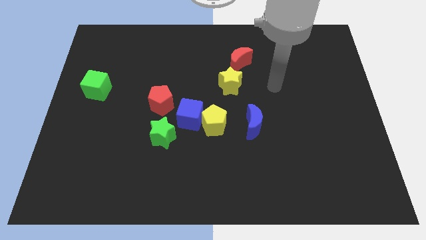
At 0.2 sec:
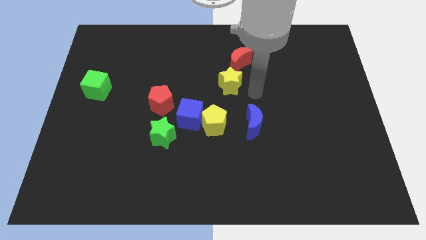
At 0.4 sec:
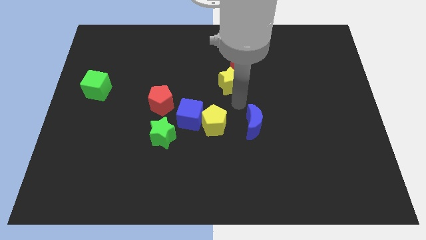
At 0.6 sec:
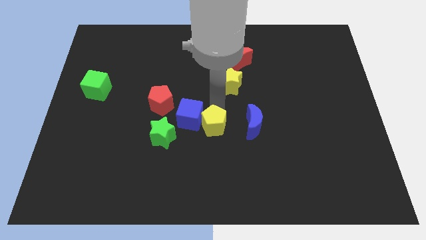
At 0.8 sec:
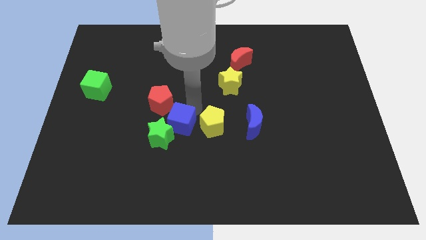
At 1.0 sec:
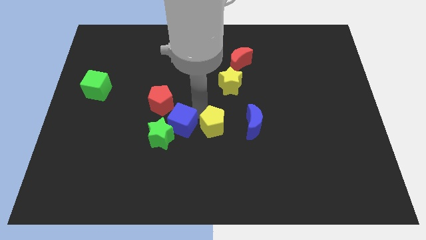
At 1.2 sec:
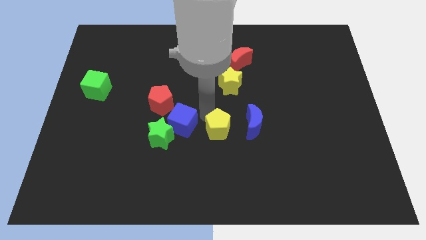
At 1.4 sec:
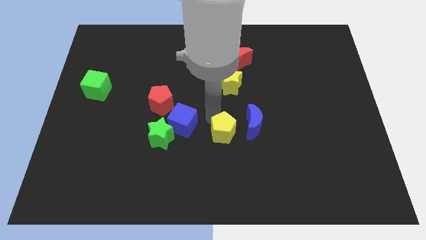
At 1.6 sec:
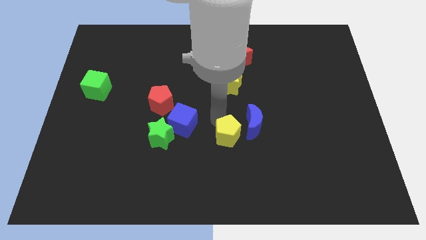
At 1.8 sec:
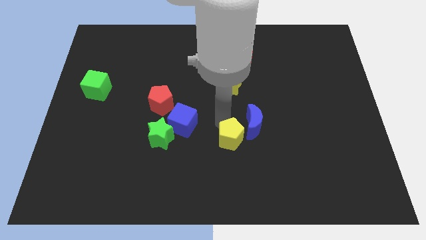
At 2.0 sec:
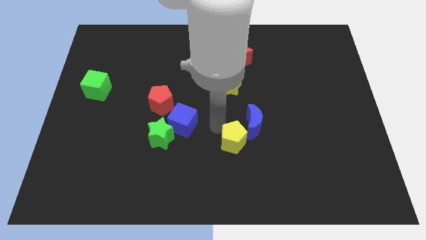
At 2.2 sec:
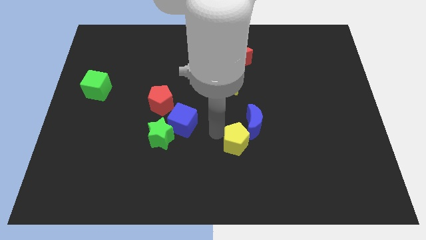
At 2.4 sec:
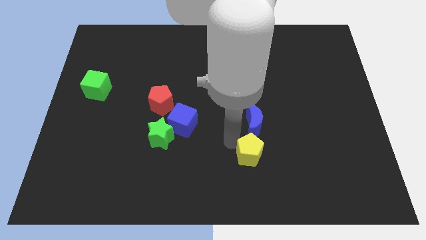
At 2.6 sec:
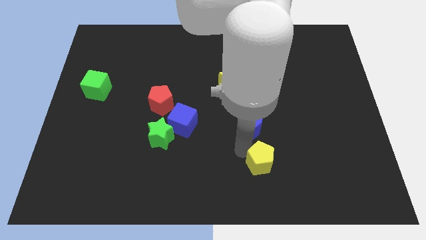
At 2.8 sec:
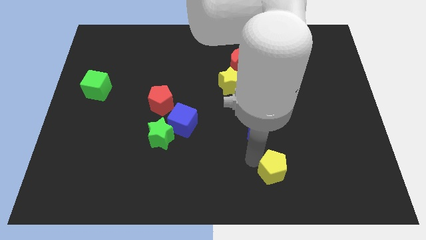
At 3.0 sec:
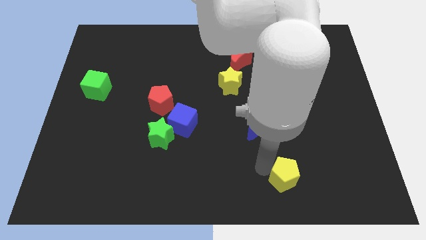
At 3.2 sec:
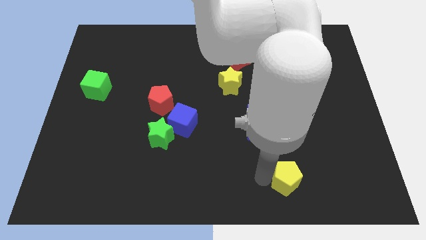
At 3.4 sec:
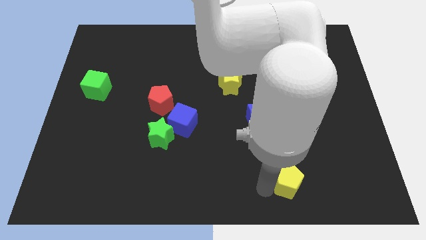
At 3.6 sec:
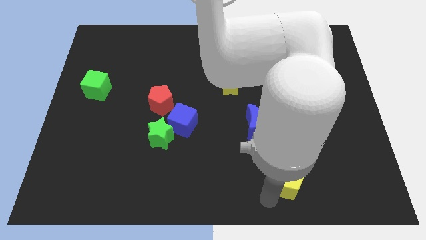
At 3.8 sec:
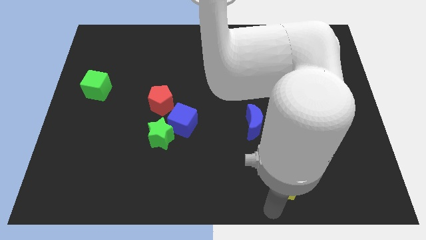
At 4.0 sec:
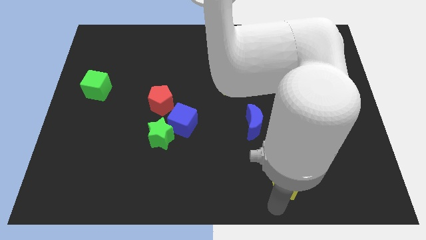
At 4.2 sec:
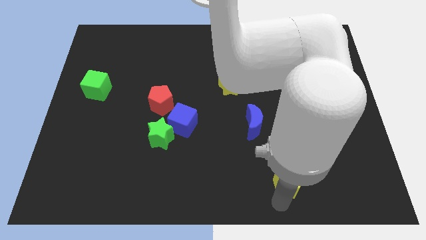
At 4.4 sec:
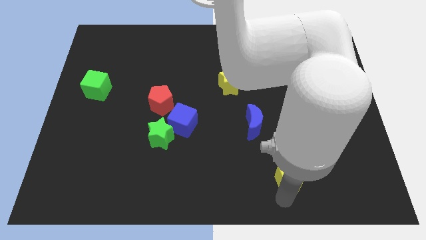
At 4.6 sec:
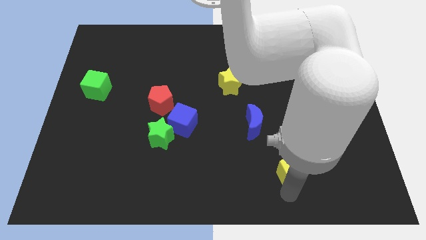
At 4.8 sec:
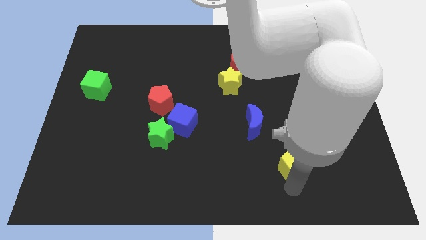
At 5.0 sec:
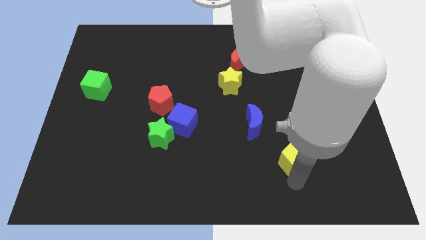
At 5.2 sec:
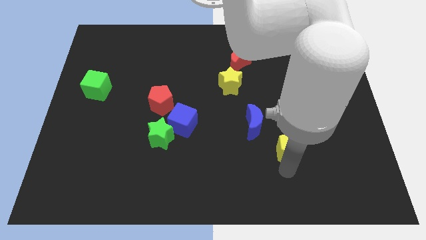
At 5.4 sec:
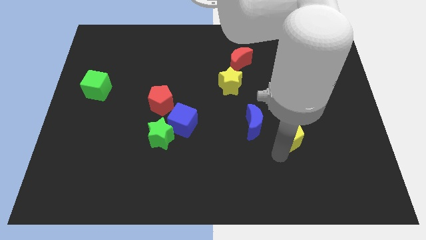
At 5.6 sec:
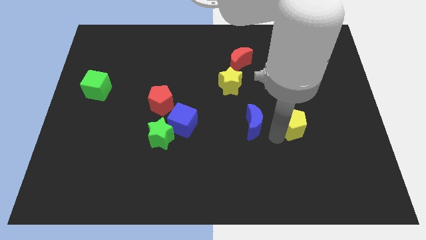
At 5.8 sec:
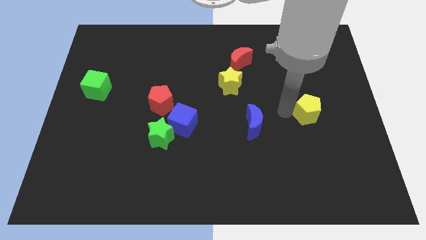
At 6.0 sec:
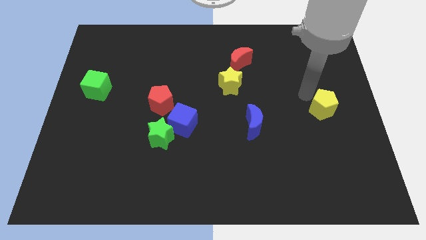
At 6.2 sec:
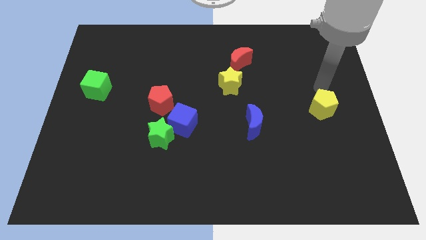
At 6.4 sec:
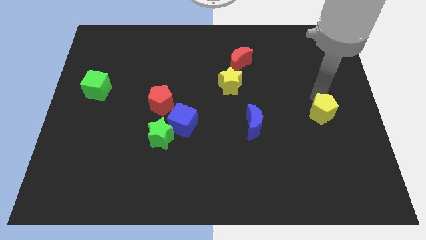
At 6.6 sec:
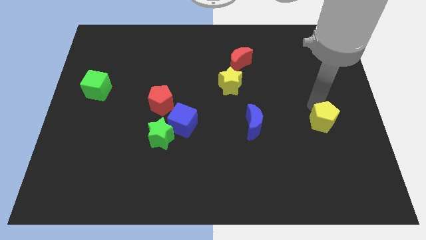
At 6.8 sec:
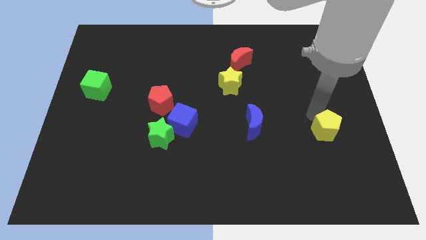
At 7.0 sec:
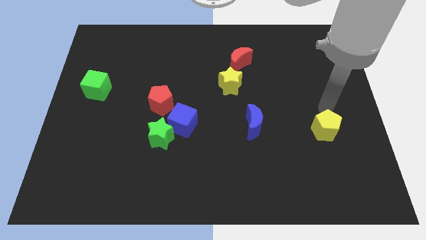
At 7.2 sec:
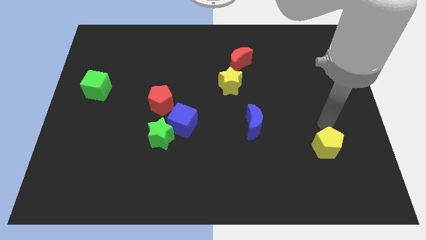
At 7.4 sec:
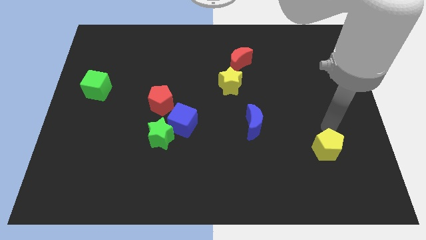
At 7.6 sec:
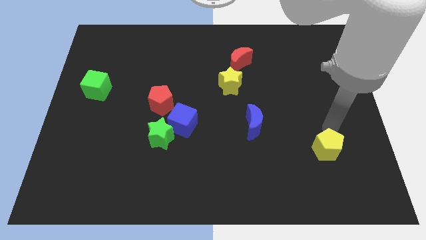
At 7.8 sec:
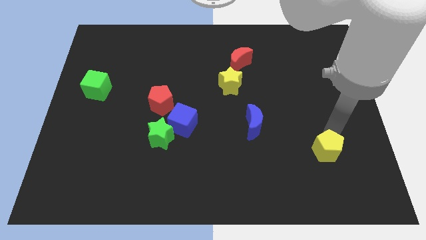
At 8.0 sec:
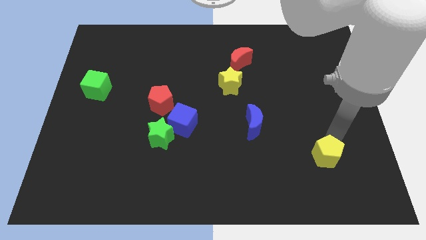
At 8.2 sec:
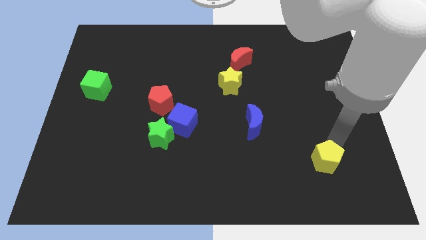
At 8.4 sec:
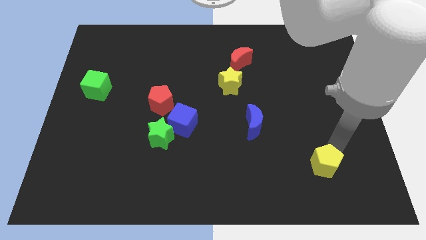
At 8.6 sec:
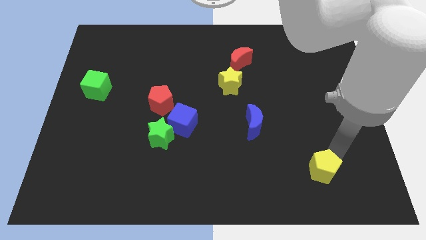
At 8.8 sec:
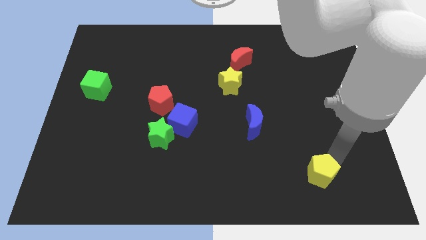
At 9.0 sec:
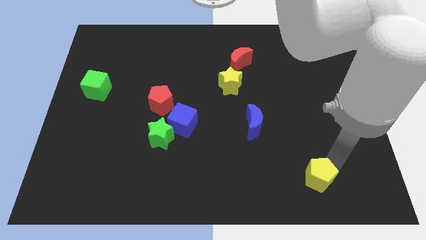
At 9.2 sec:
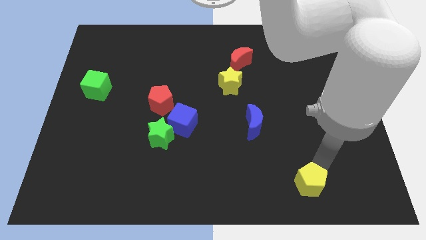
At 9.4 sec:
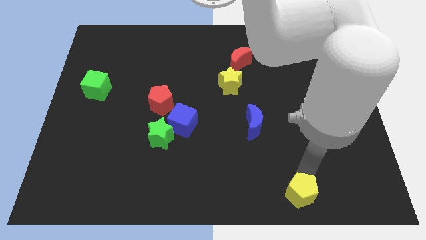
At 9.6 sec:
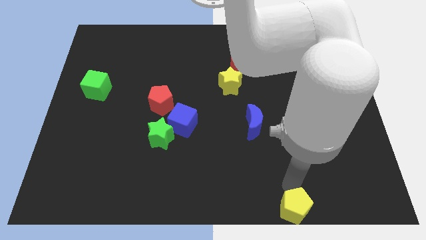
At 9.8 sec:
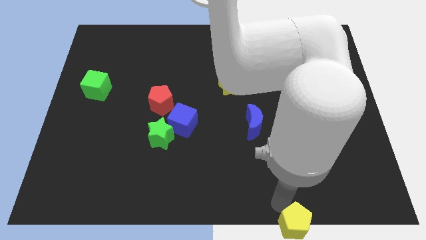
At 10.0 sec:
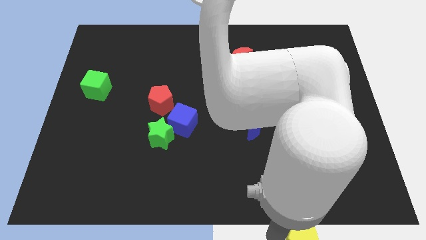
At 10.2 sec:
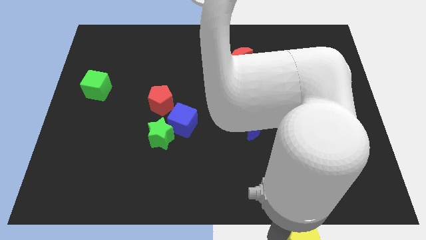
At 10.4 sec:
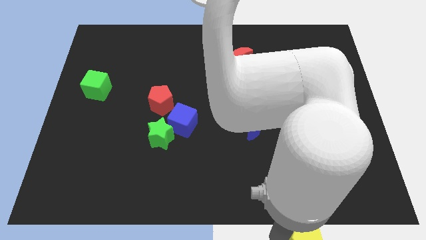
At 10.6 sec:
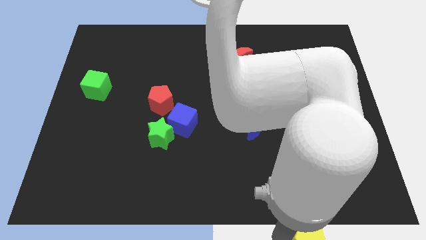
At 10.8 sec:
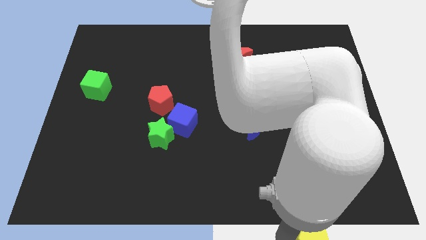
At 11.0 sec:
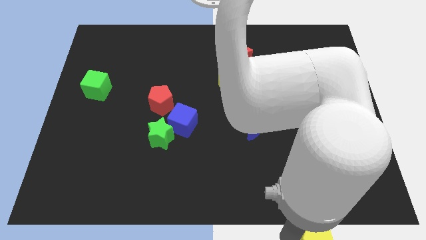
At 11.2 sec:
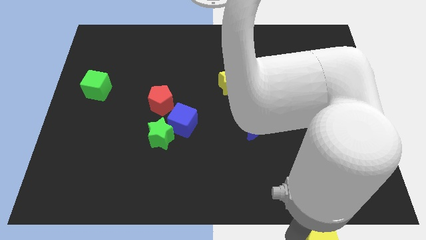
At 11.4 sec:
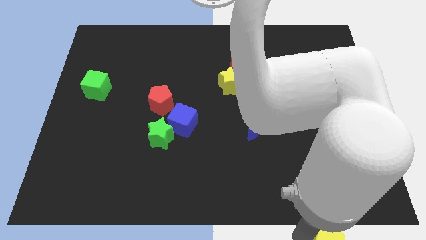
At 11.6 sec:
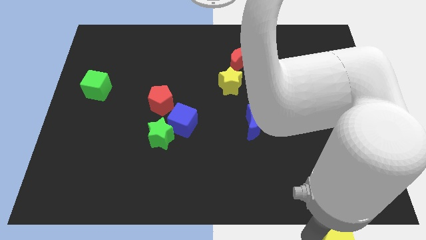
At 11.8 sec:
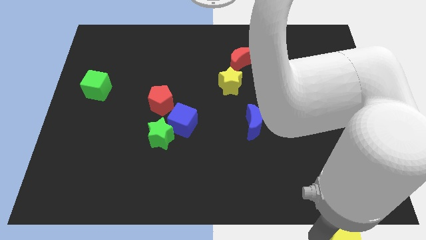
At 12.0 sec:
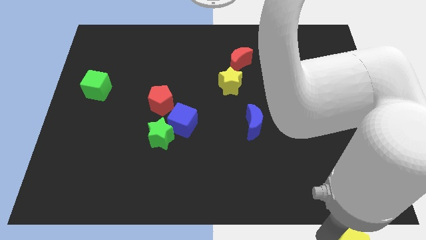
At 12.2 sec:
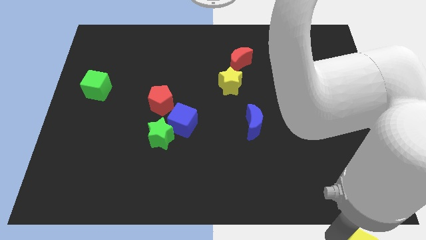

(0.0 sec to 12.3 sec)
push the yellow pentagon to the bottom right of the board

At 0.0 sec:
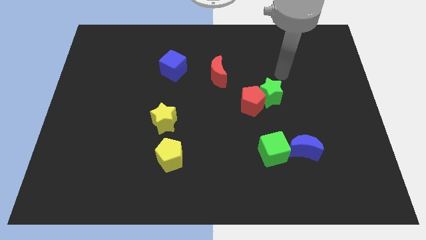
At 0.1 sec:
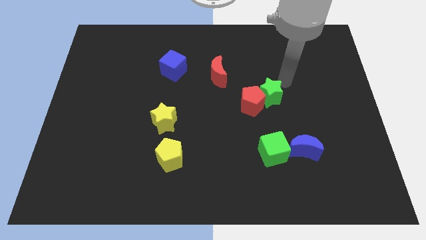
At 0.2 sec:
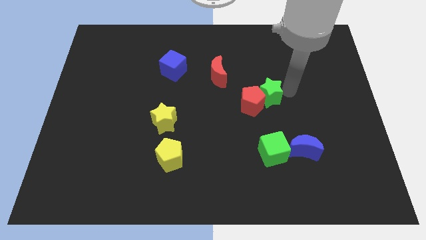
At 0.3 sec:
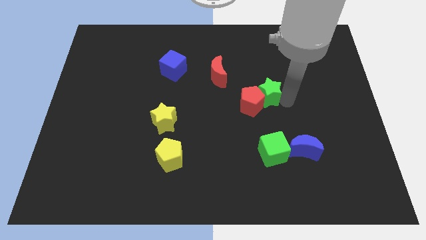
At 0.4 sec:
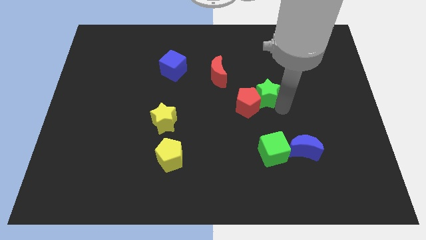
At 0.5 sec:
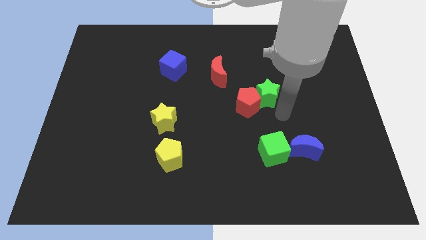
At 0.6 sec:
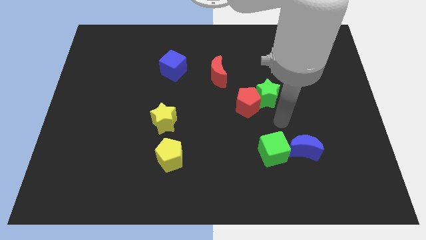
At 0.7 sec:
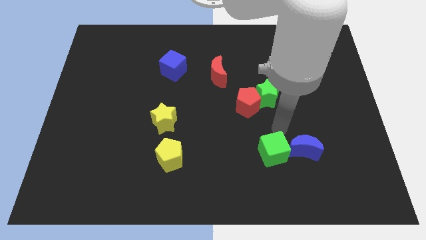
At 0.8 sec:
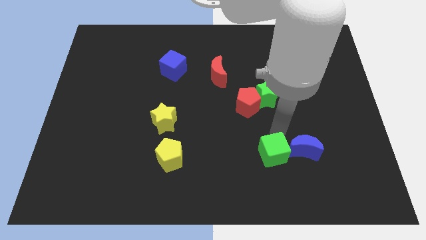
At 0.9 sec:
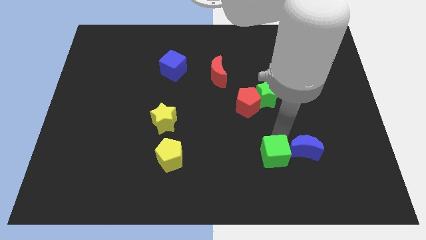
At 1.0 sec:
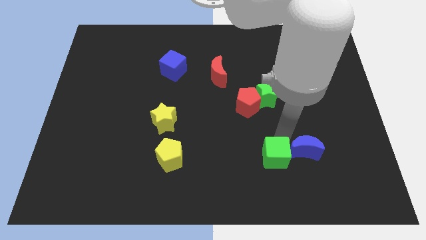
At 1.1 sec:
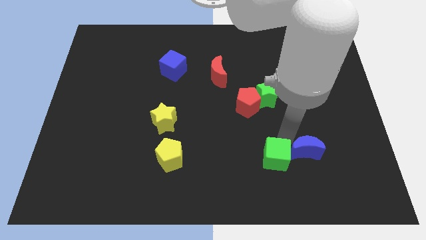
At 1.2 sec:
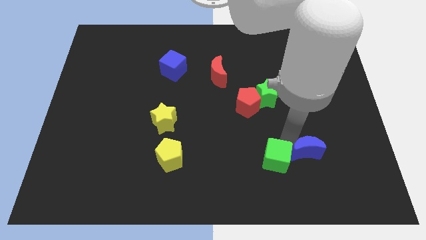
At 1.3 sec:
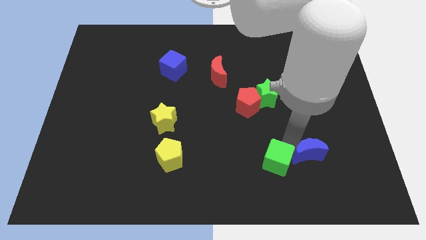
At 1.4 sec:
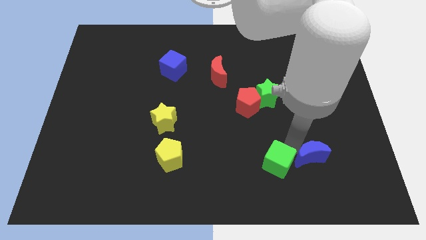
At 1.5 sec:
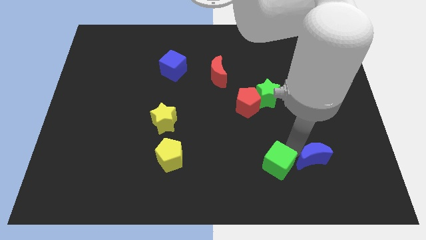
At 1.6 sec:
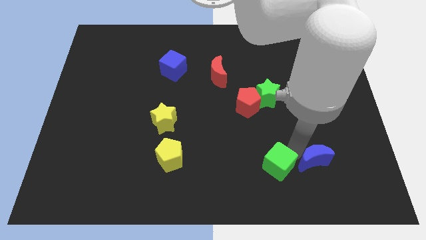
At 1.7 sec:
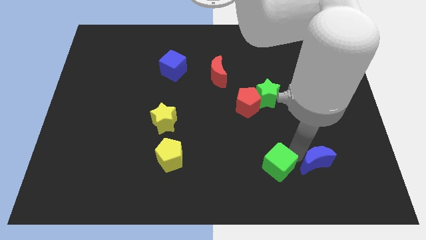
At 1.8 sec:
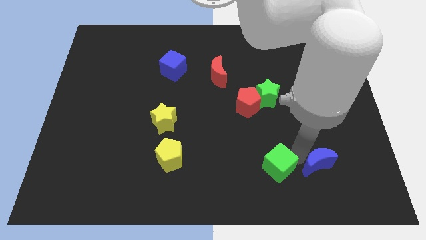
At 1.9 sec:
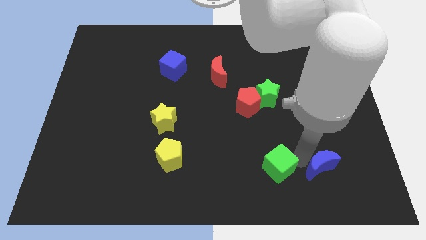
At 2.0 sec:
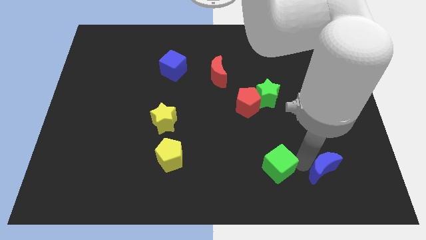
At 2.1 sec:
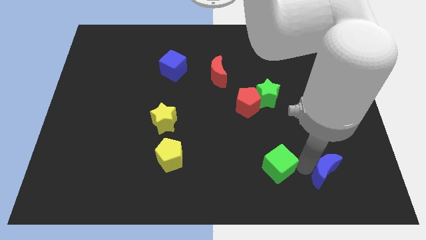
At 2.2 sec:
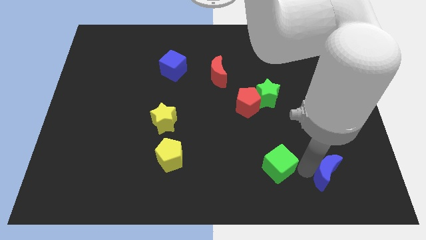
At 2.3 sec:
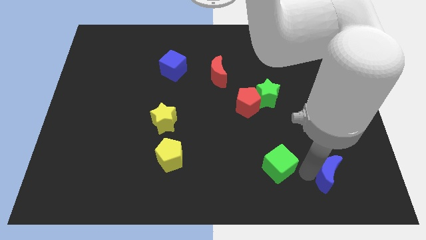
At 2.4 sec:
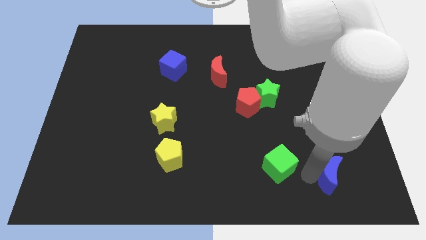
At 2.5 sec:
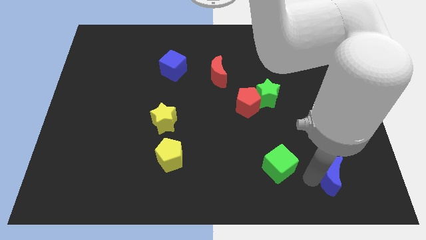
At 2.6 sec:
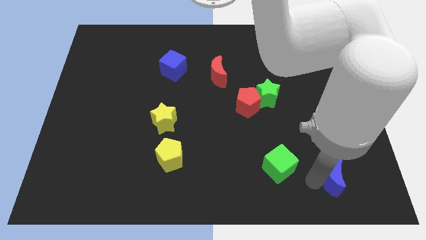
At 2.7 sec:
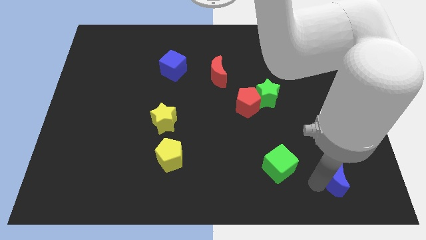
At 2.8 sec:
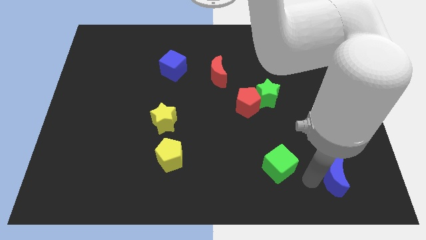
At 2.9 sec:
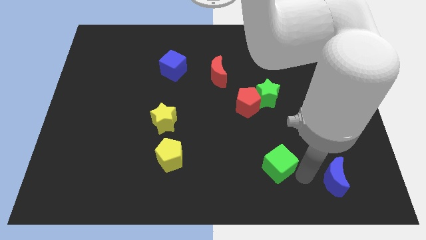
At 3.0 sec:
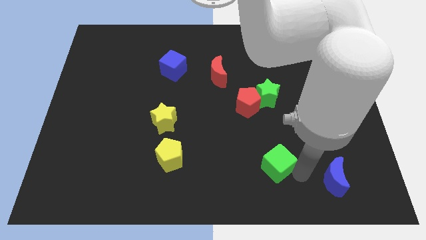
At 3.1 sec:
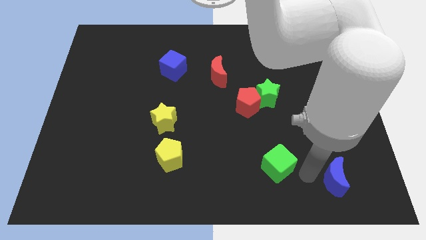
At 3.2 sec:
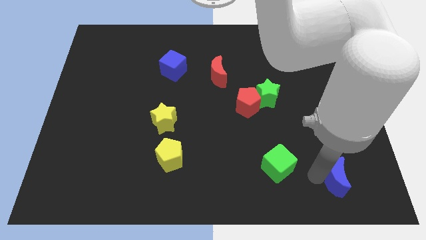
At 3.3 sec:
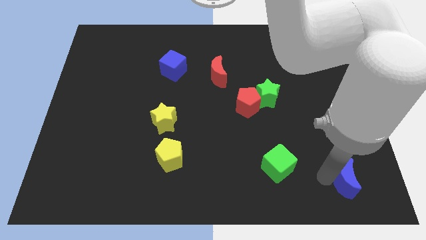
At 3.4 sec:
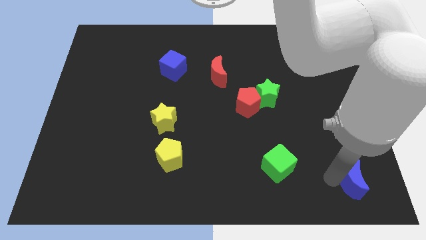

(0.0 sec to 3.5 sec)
slide the blue moon to the bottom right of the board
